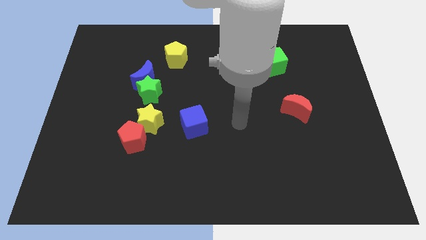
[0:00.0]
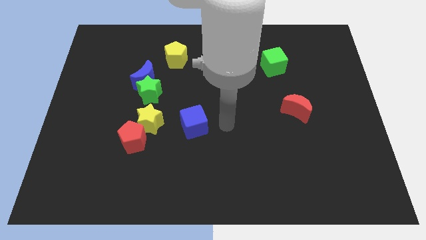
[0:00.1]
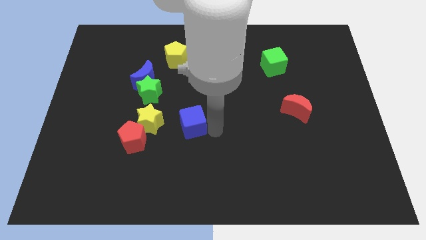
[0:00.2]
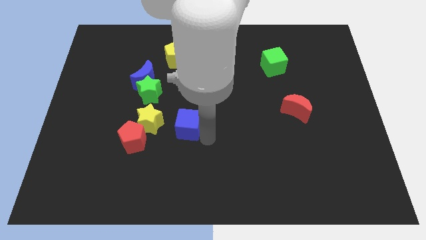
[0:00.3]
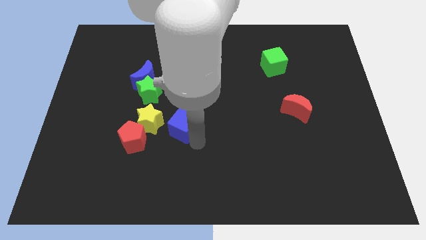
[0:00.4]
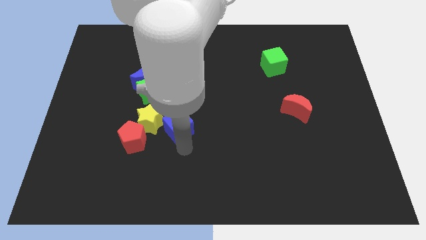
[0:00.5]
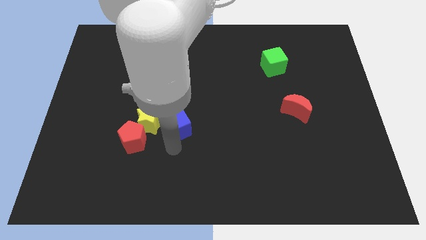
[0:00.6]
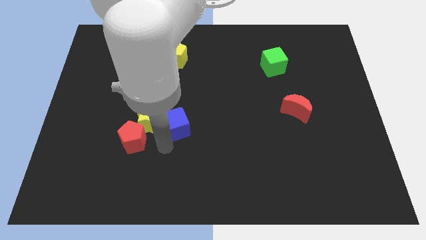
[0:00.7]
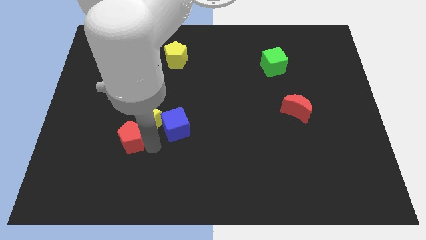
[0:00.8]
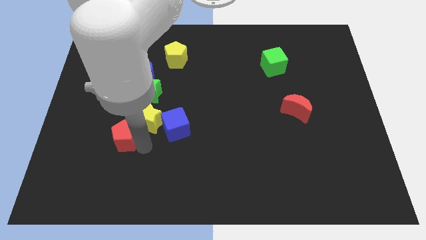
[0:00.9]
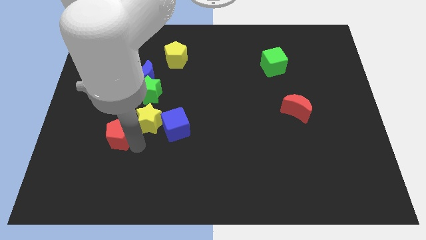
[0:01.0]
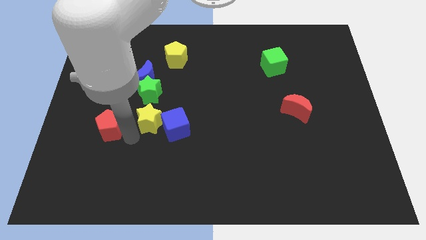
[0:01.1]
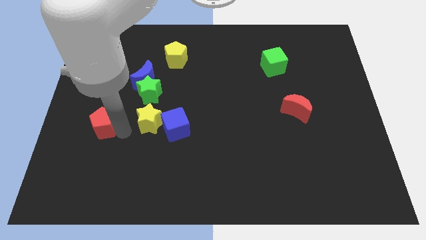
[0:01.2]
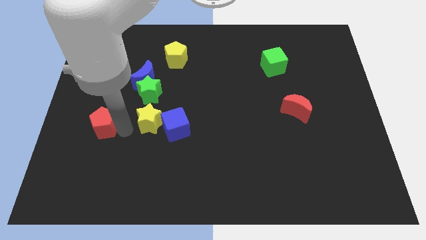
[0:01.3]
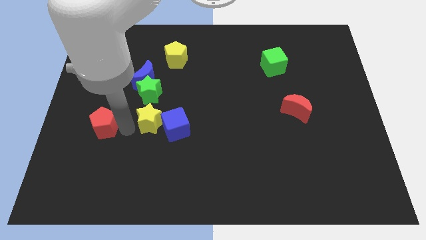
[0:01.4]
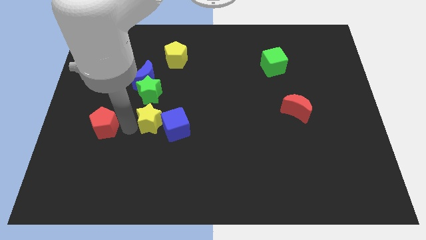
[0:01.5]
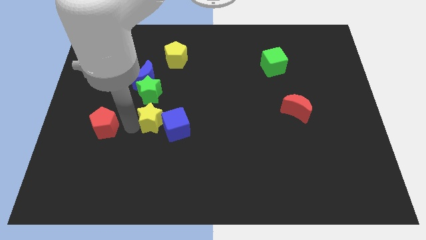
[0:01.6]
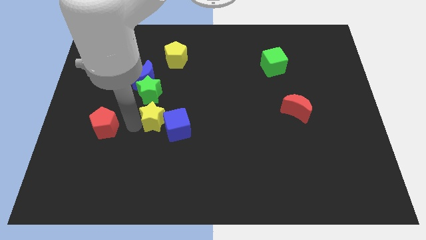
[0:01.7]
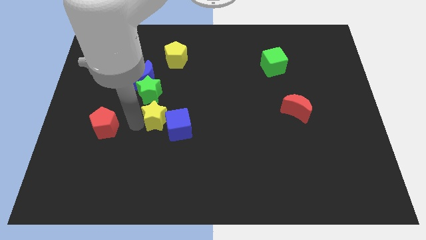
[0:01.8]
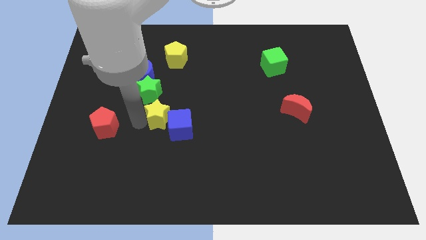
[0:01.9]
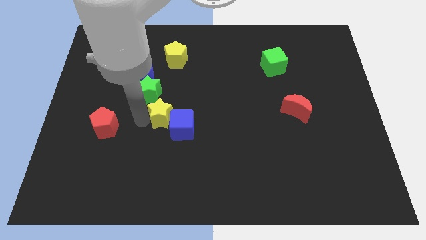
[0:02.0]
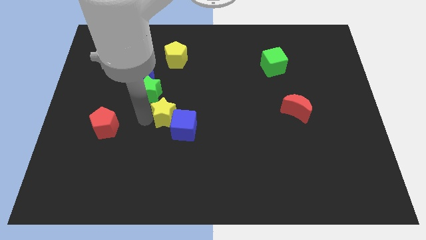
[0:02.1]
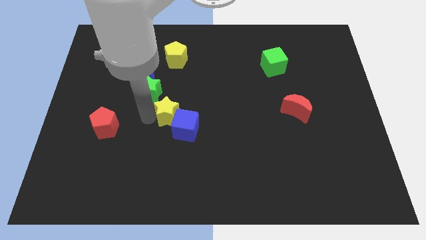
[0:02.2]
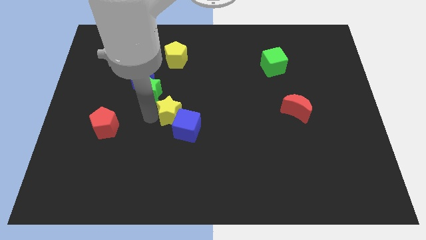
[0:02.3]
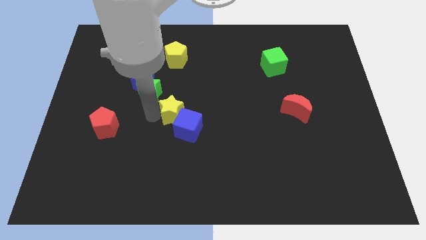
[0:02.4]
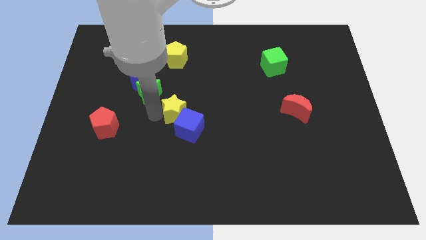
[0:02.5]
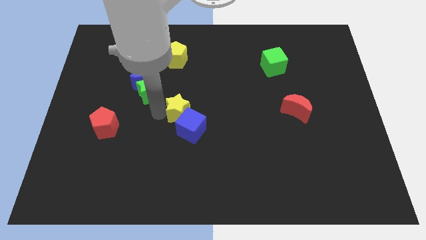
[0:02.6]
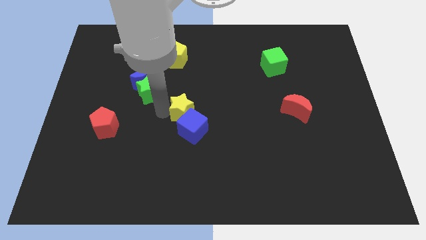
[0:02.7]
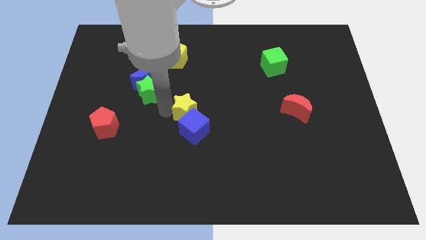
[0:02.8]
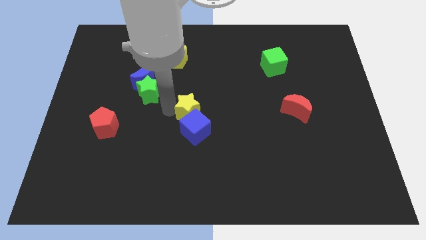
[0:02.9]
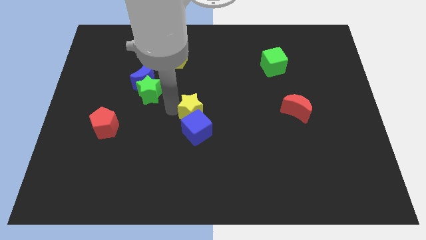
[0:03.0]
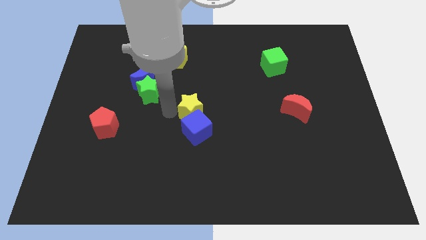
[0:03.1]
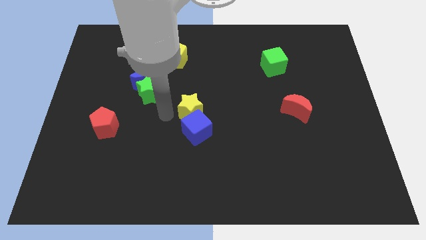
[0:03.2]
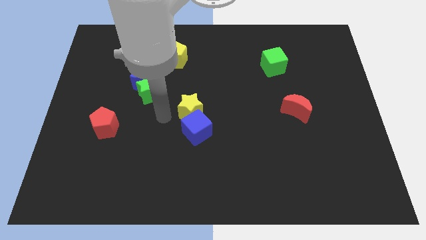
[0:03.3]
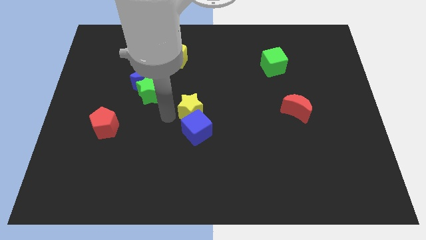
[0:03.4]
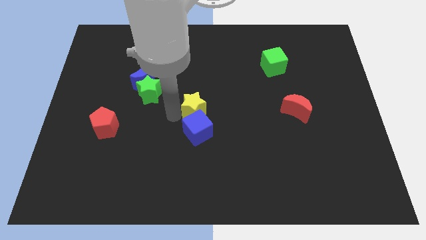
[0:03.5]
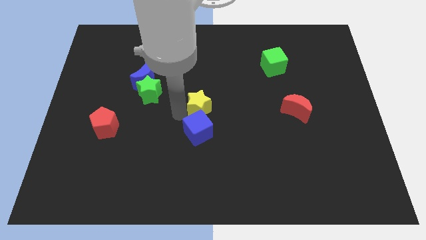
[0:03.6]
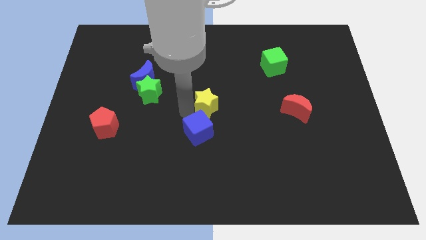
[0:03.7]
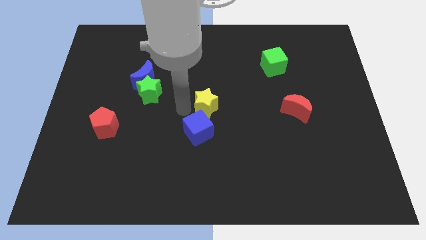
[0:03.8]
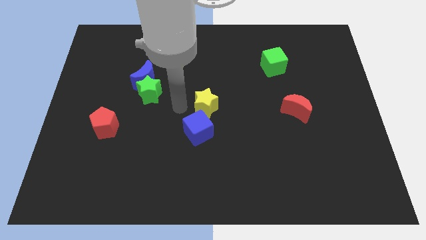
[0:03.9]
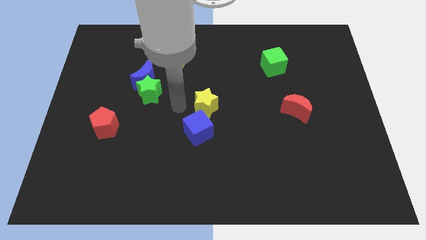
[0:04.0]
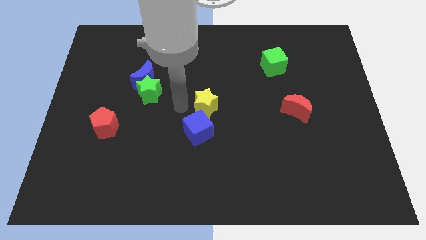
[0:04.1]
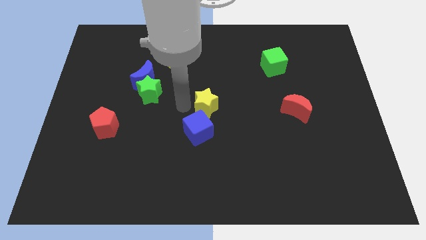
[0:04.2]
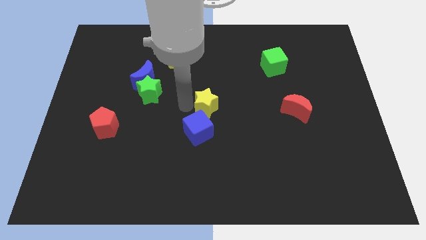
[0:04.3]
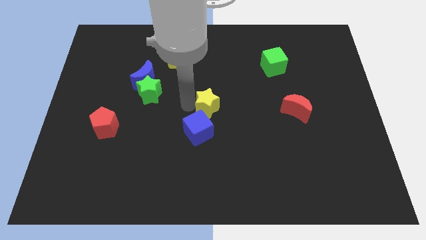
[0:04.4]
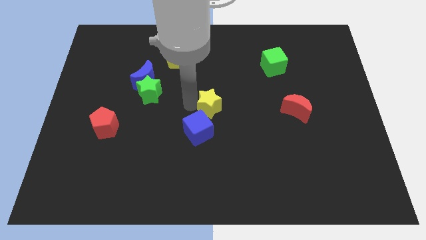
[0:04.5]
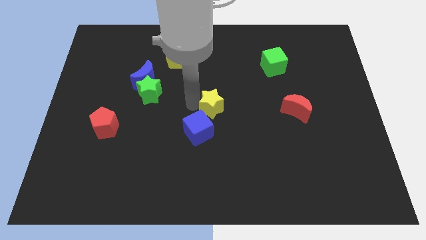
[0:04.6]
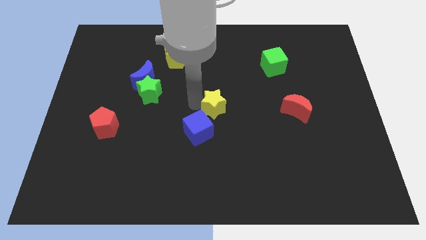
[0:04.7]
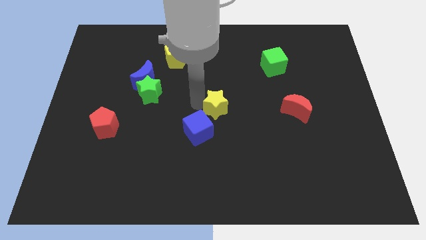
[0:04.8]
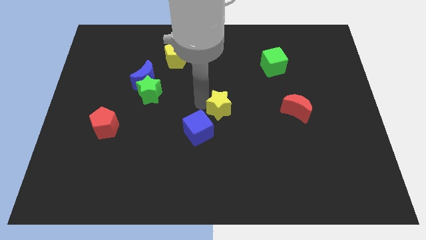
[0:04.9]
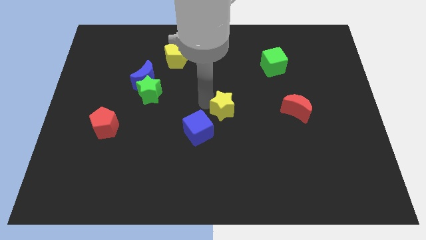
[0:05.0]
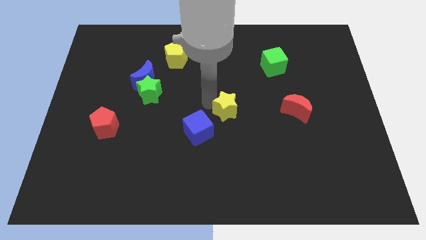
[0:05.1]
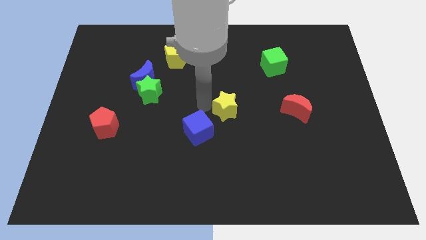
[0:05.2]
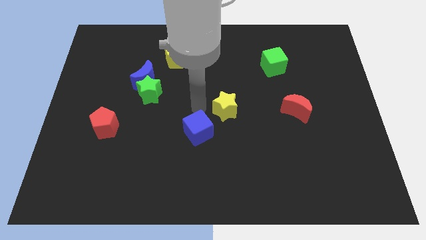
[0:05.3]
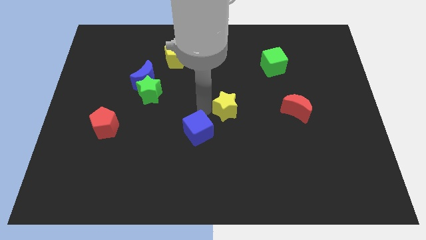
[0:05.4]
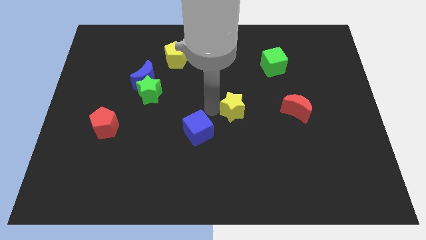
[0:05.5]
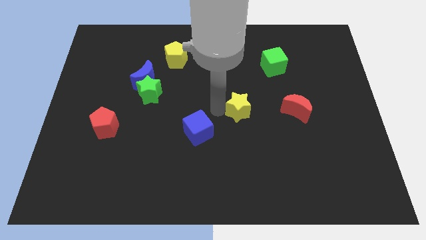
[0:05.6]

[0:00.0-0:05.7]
push the yellow star right

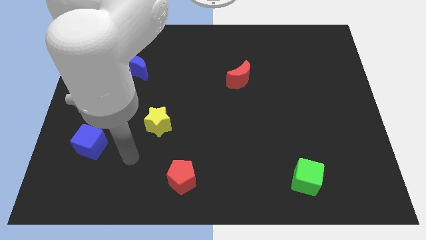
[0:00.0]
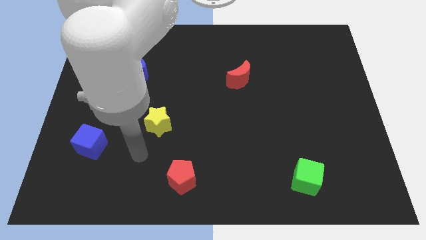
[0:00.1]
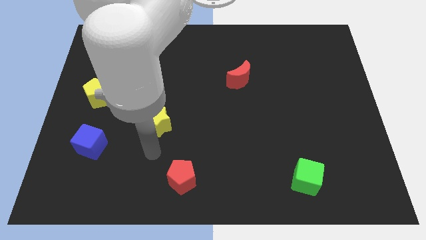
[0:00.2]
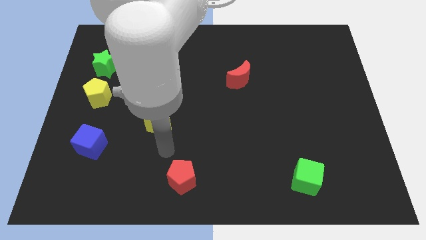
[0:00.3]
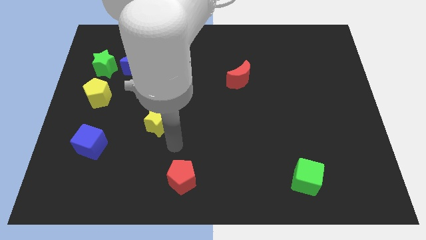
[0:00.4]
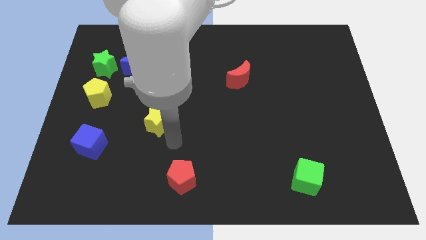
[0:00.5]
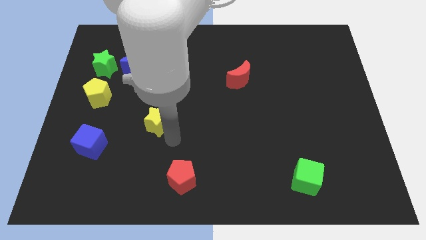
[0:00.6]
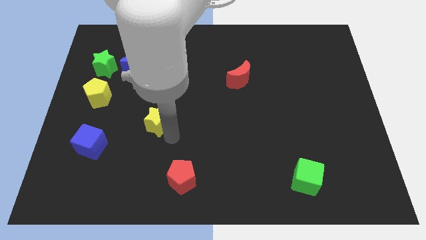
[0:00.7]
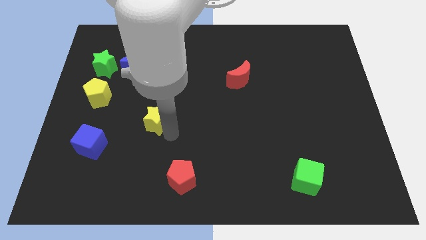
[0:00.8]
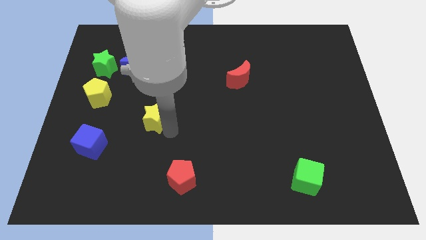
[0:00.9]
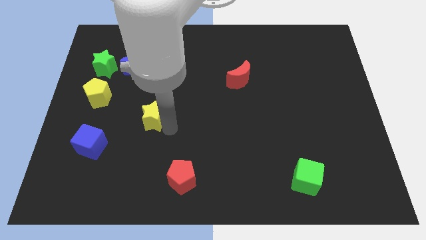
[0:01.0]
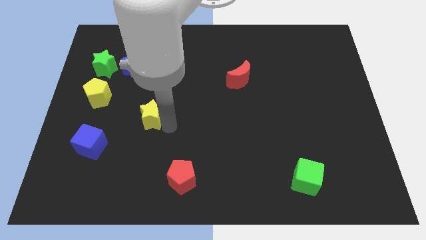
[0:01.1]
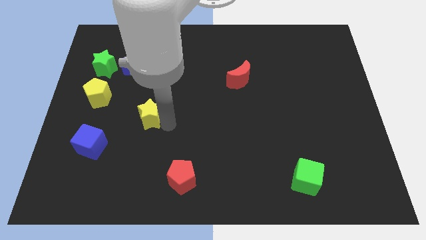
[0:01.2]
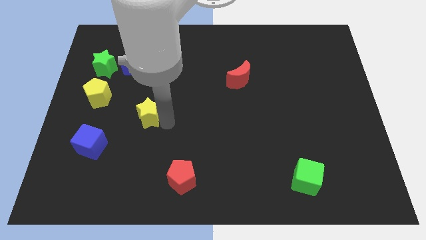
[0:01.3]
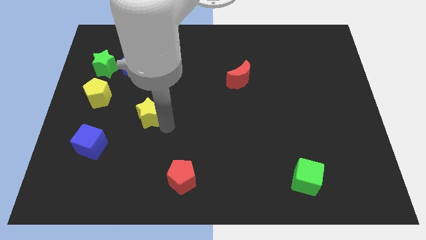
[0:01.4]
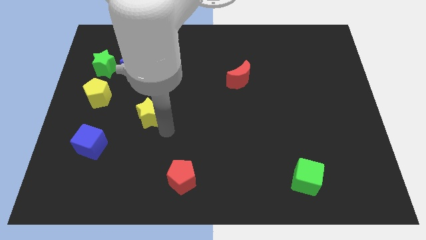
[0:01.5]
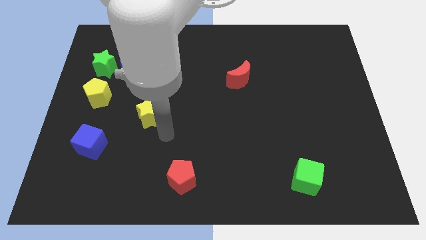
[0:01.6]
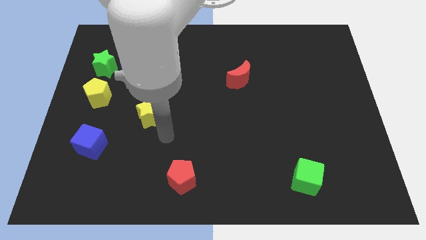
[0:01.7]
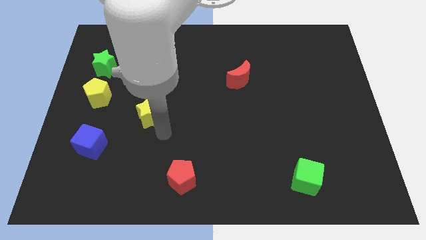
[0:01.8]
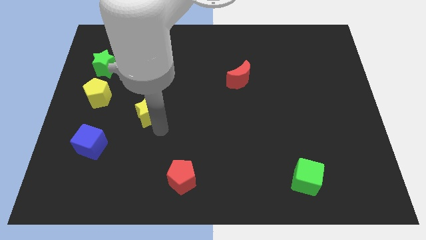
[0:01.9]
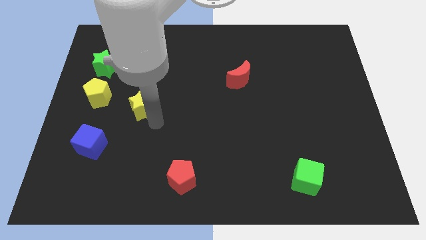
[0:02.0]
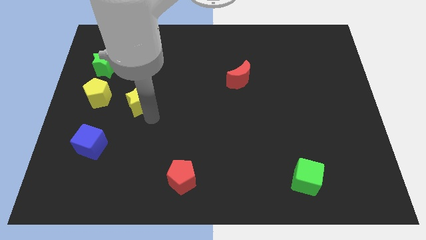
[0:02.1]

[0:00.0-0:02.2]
push the yellow star a little diagonally upwards and left
